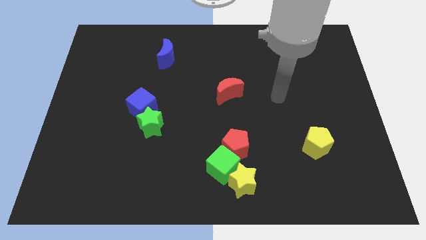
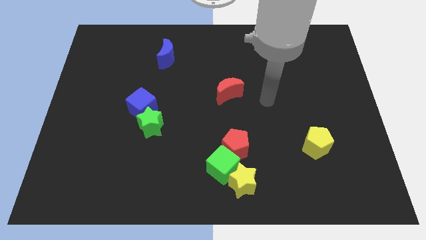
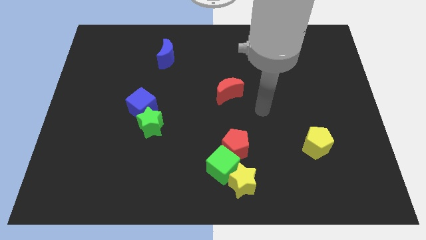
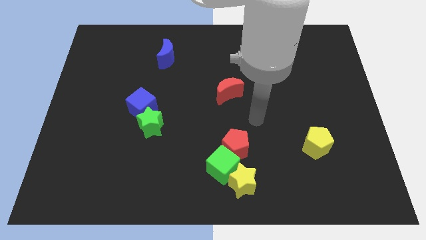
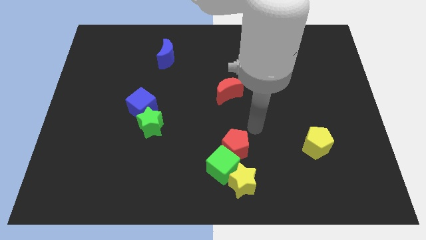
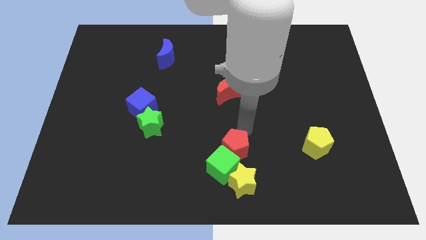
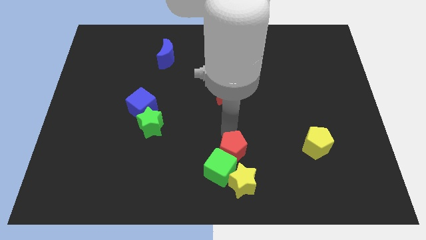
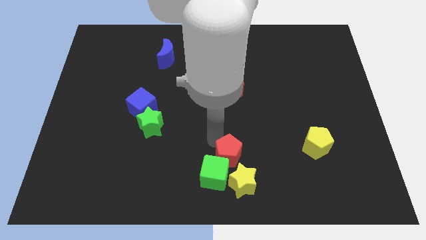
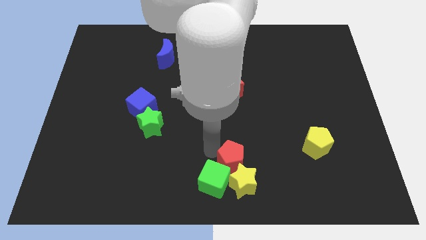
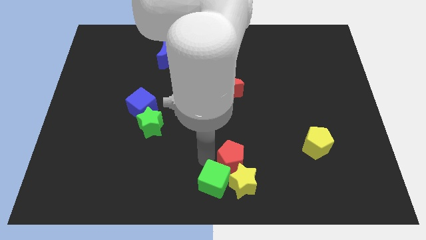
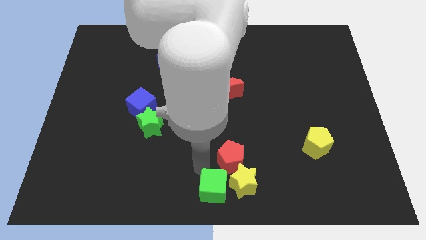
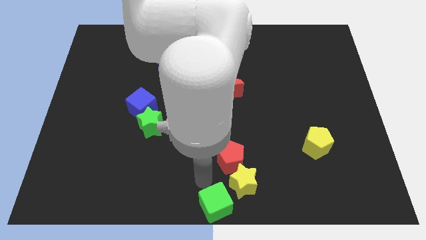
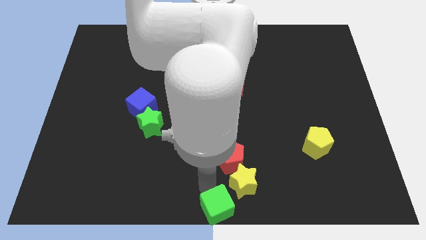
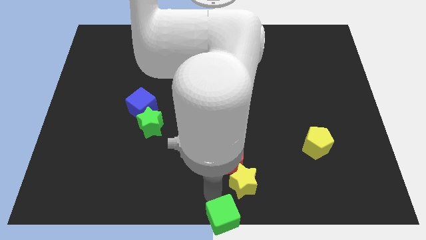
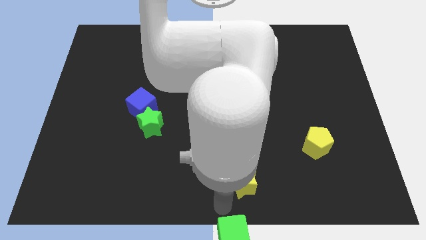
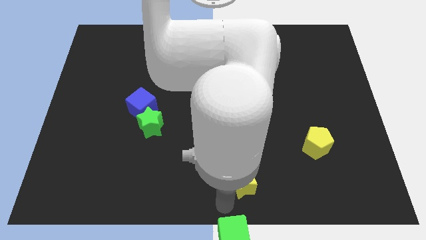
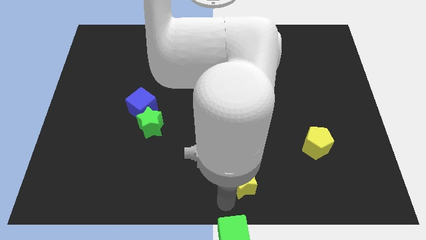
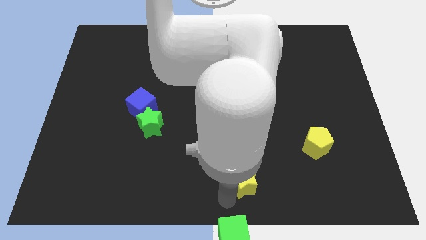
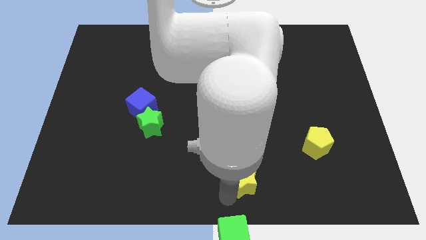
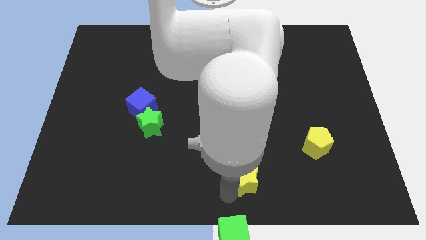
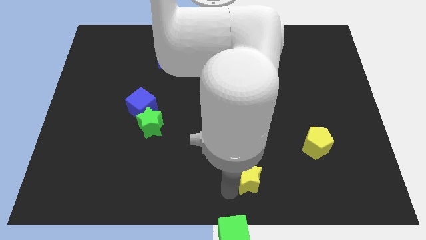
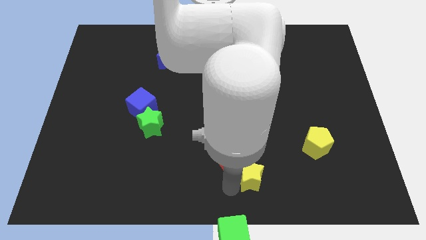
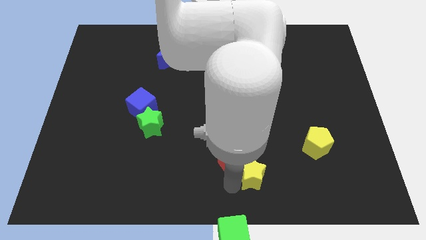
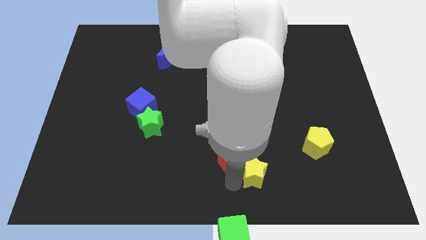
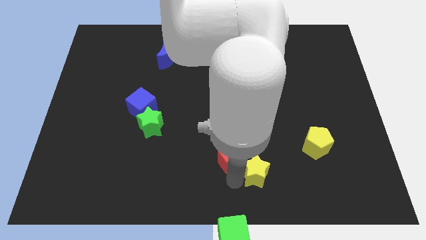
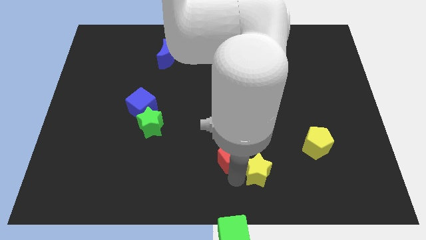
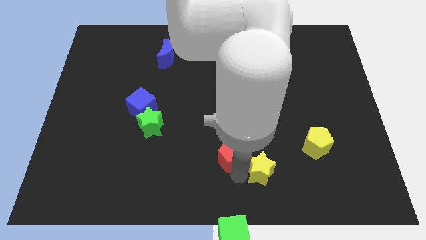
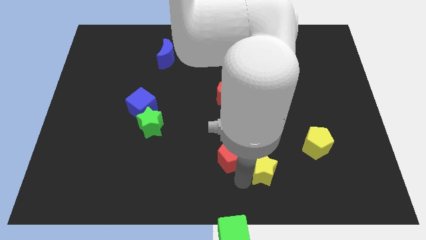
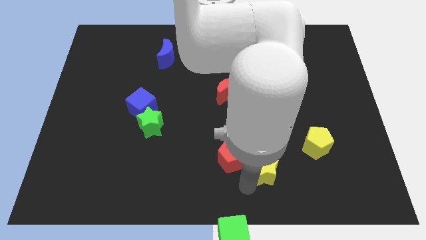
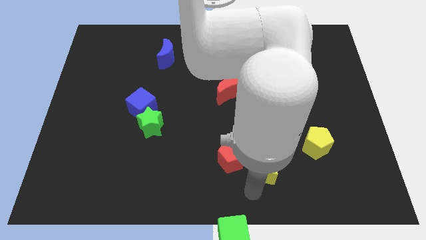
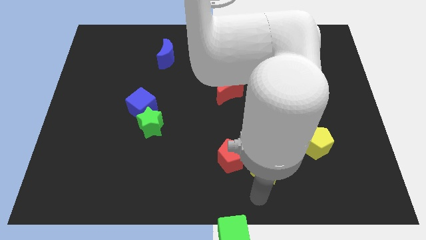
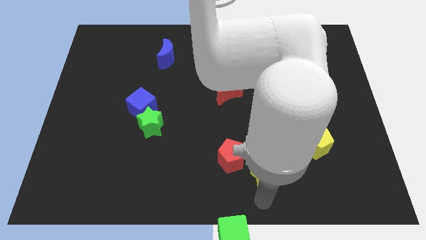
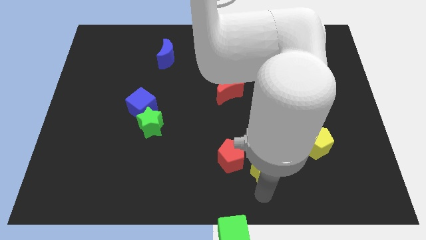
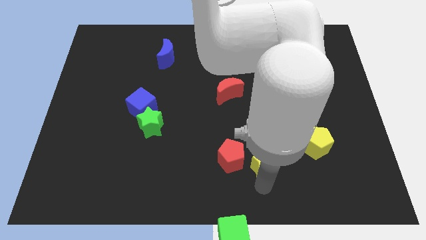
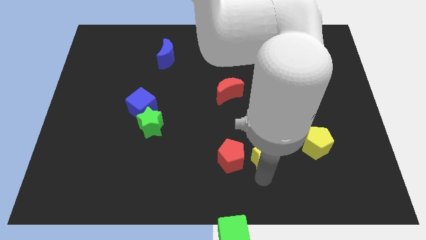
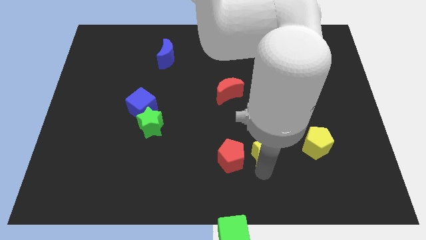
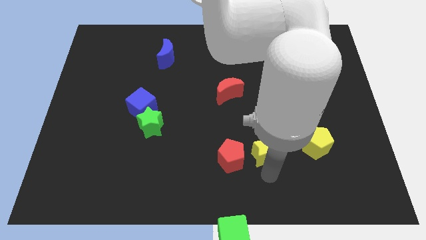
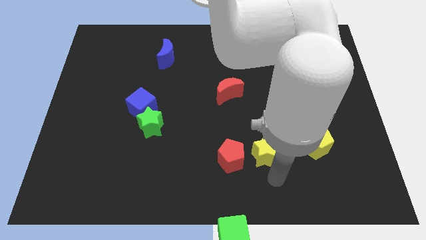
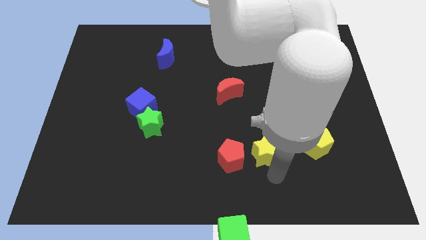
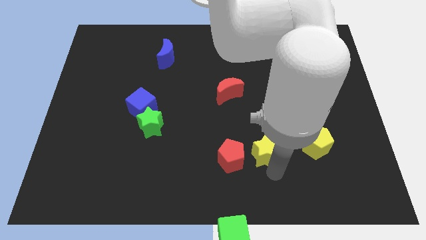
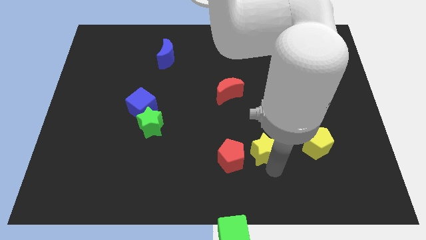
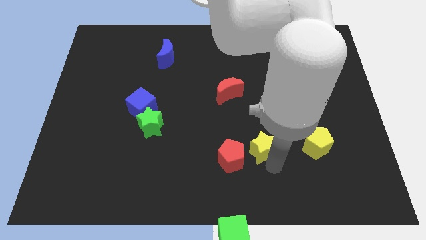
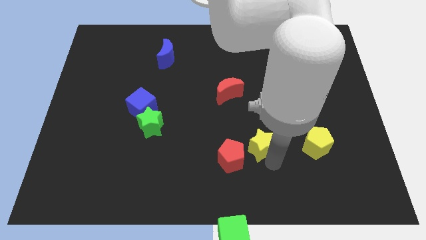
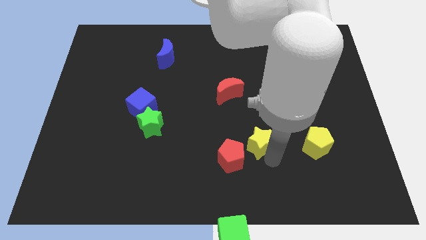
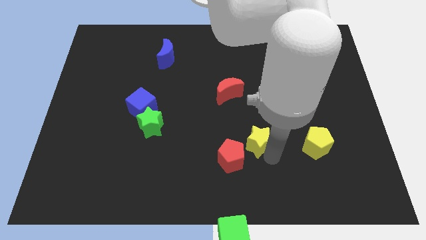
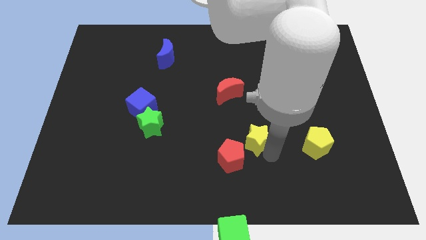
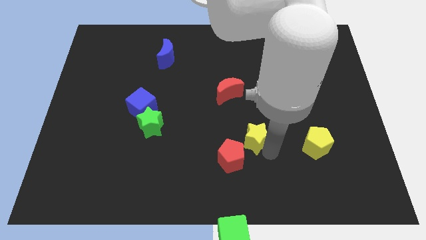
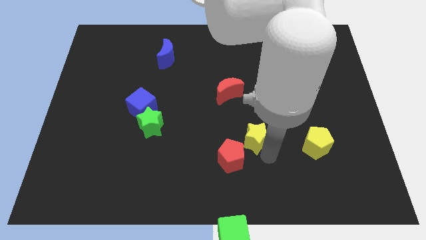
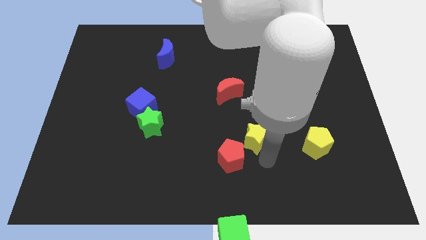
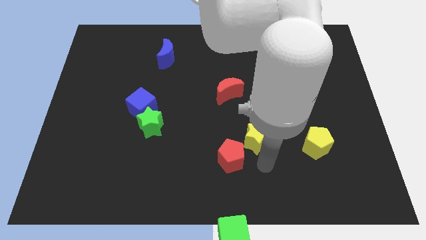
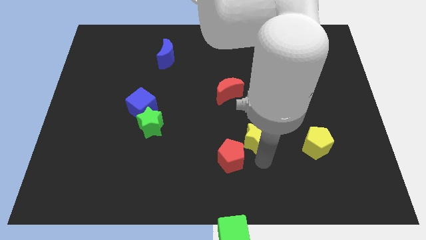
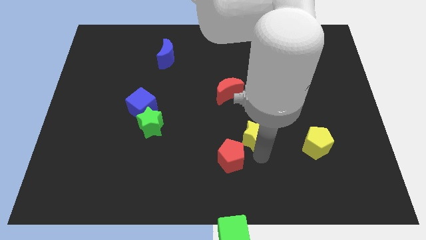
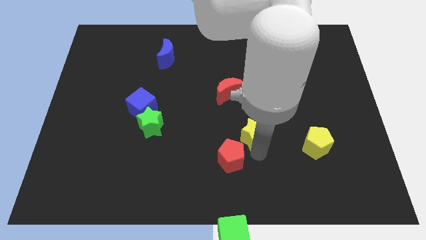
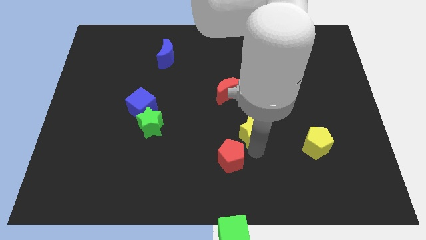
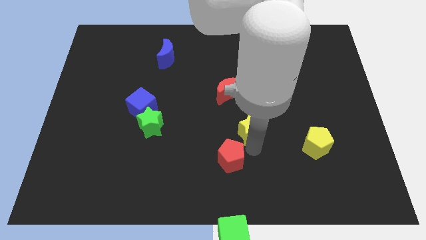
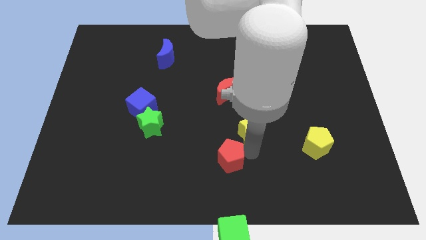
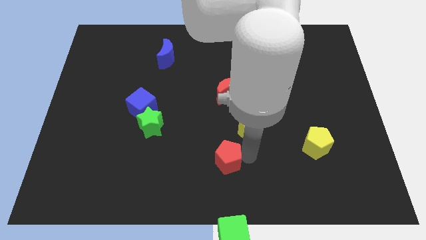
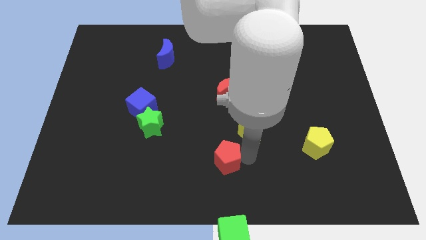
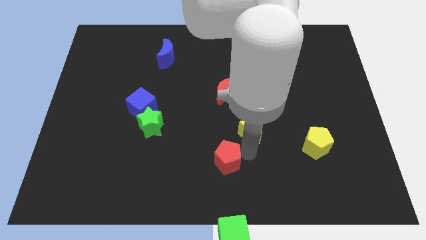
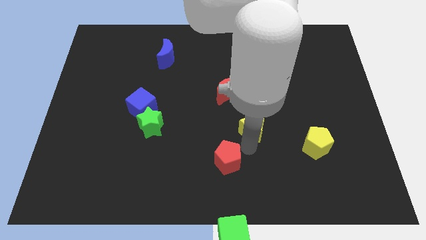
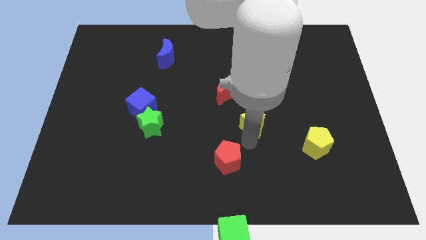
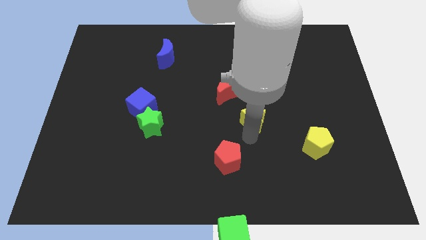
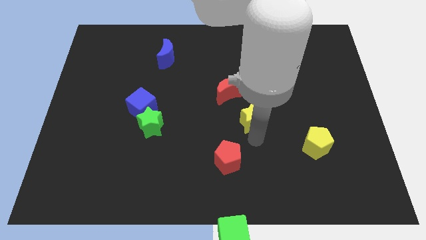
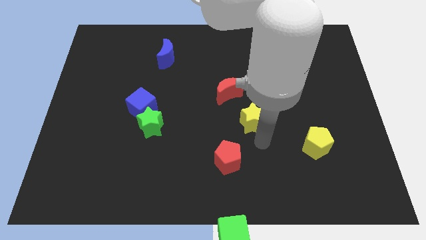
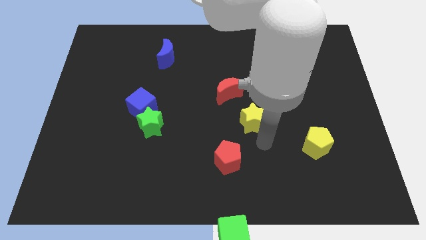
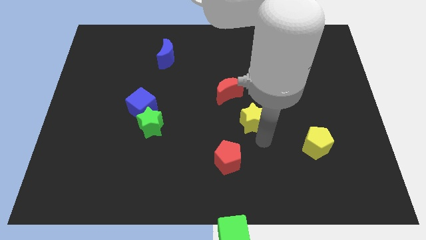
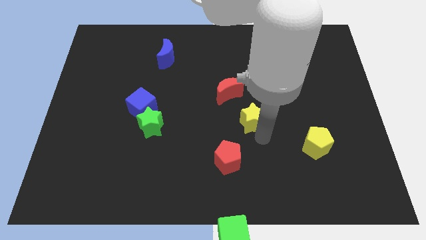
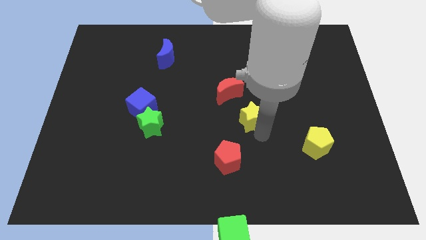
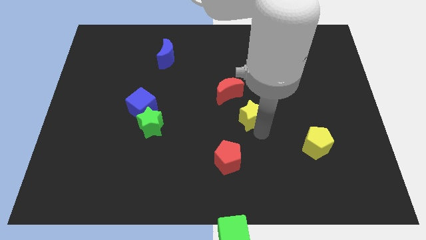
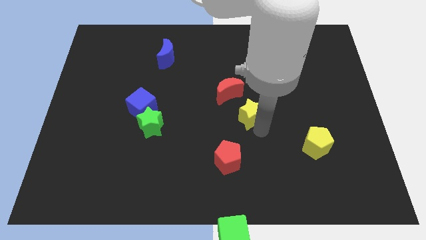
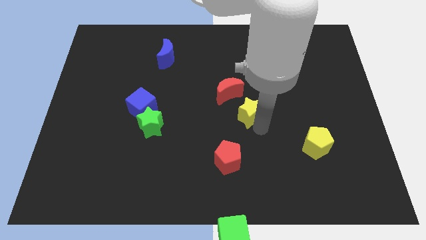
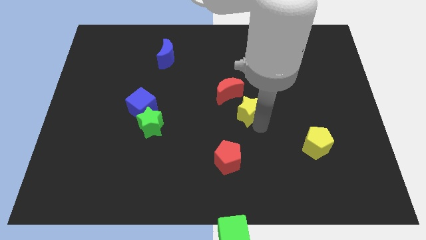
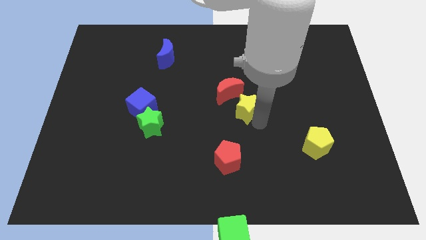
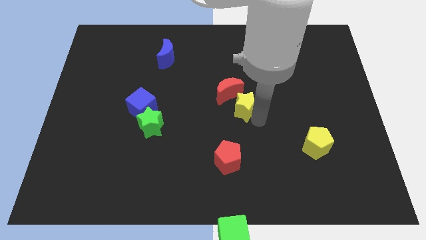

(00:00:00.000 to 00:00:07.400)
slide the yellow star towards the red moon
